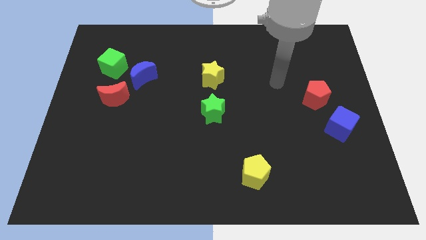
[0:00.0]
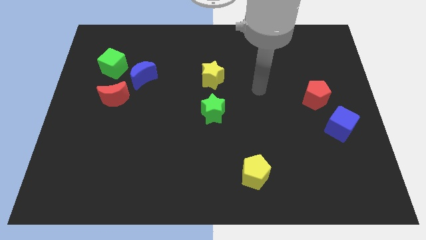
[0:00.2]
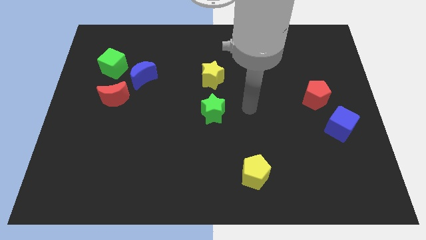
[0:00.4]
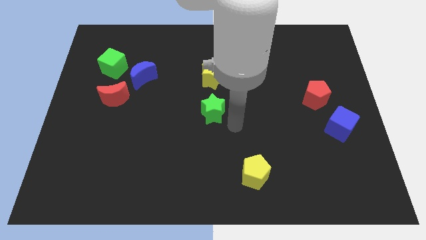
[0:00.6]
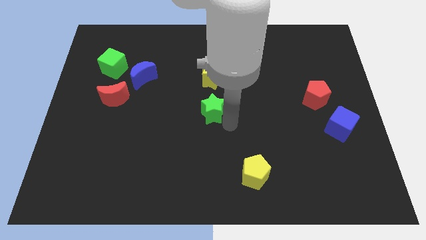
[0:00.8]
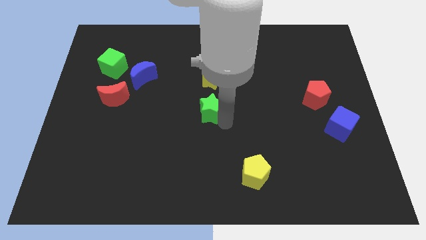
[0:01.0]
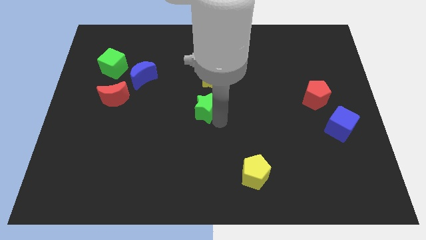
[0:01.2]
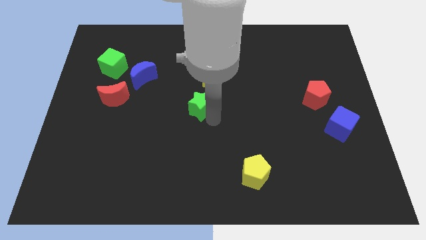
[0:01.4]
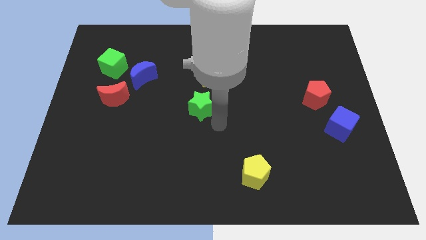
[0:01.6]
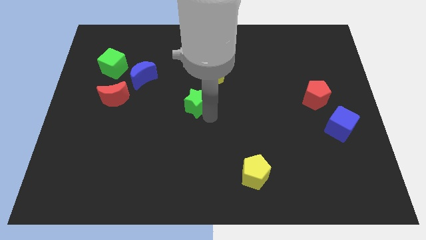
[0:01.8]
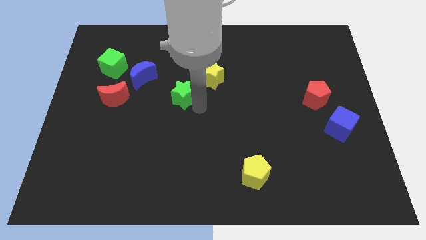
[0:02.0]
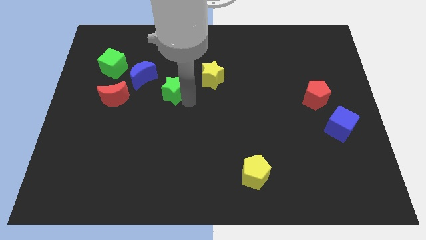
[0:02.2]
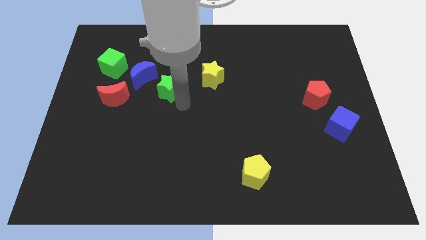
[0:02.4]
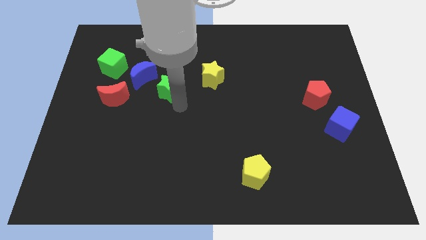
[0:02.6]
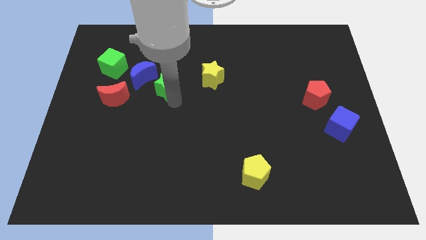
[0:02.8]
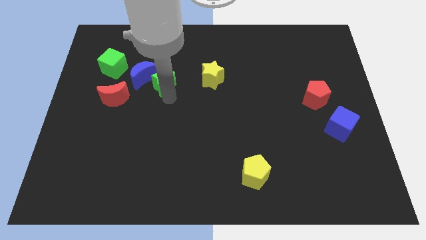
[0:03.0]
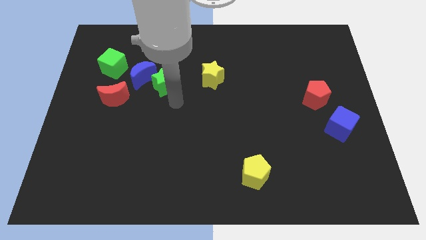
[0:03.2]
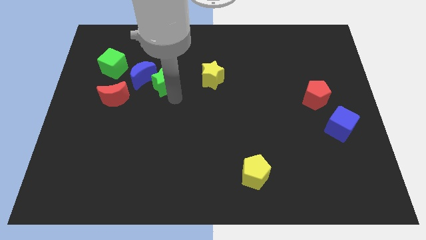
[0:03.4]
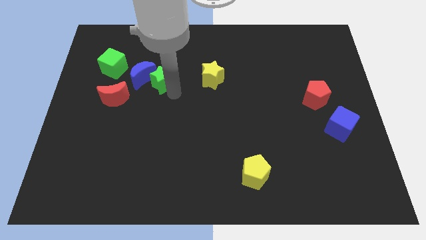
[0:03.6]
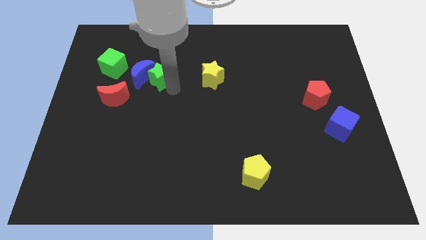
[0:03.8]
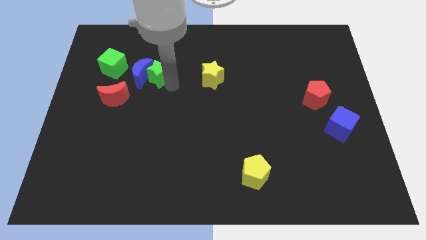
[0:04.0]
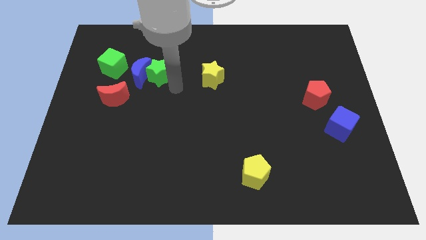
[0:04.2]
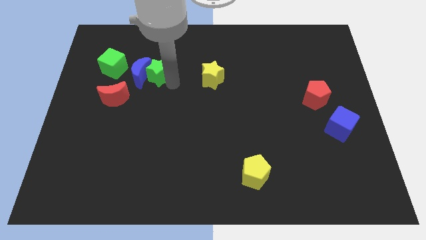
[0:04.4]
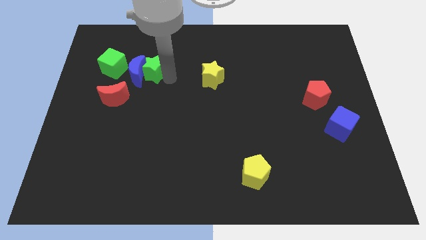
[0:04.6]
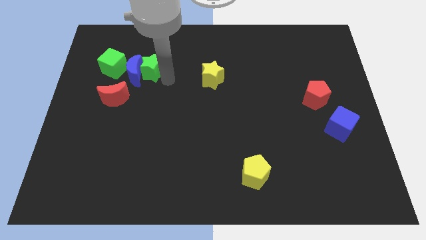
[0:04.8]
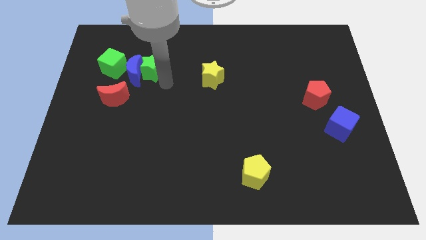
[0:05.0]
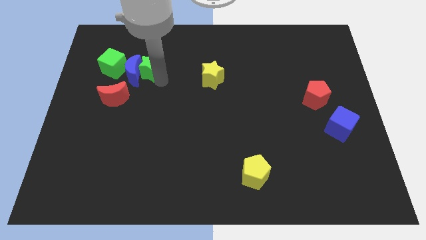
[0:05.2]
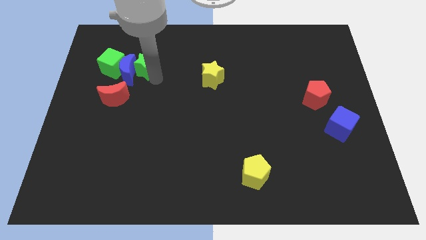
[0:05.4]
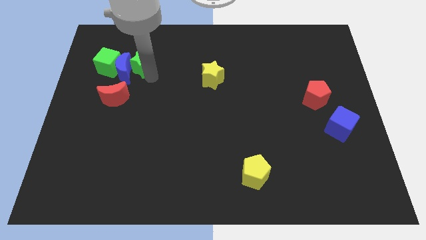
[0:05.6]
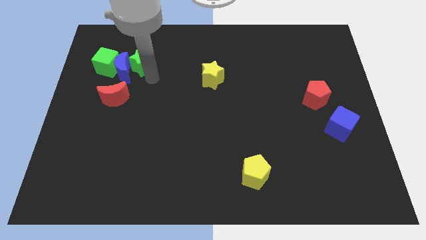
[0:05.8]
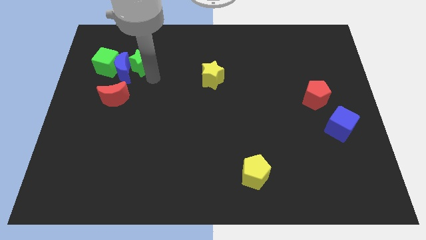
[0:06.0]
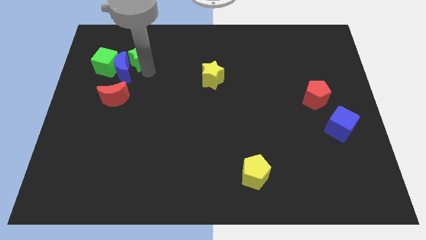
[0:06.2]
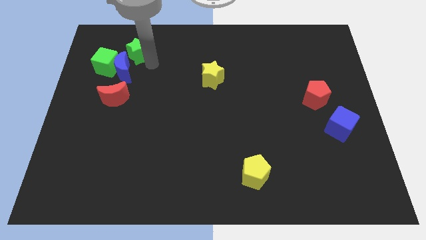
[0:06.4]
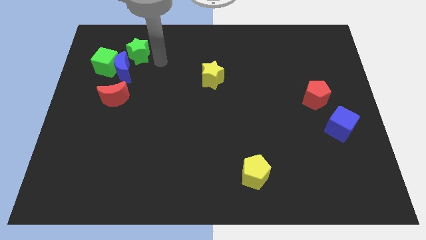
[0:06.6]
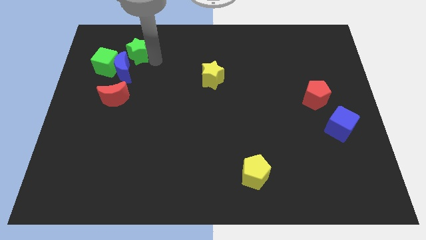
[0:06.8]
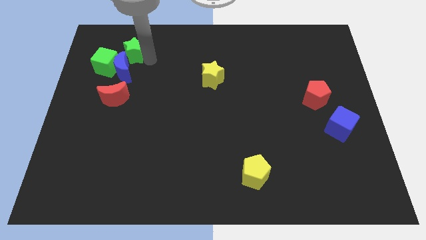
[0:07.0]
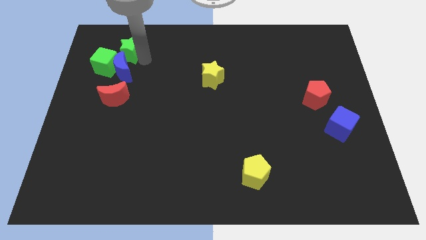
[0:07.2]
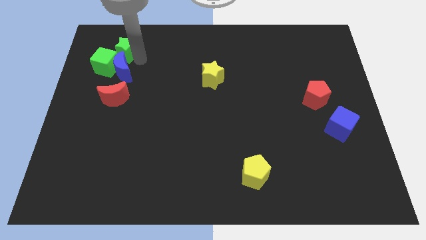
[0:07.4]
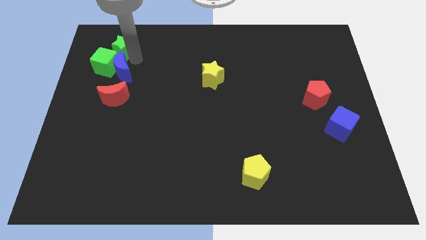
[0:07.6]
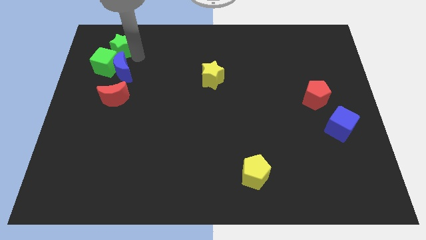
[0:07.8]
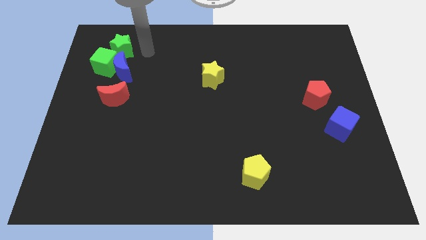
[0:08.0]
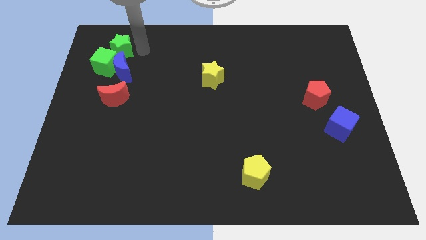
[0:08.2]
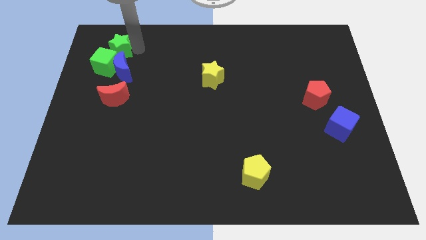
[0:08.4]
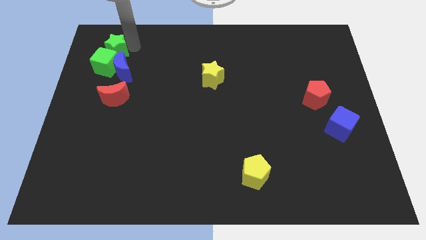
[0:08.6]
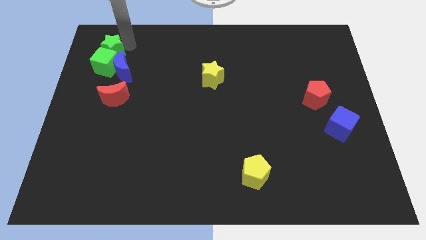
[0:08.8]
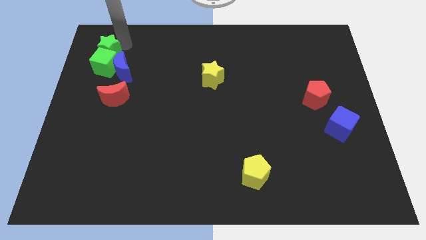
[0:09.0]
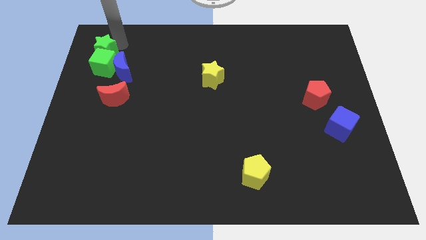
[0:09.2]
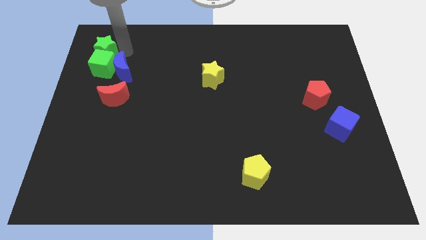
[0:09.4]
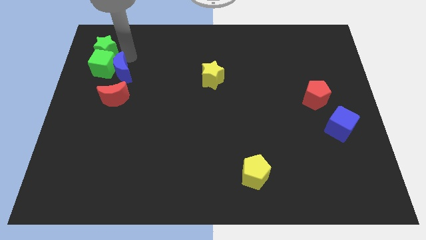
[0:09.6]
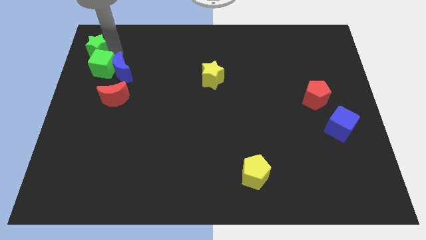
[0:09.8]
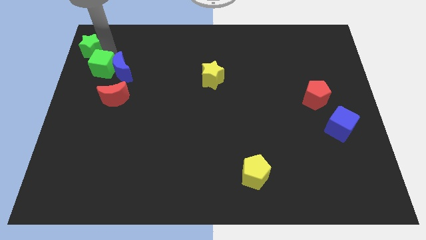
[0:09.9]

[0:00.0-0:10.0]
move the green star to the upper left corner

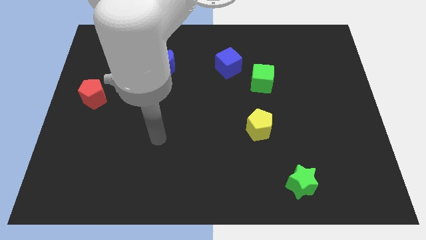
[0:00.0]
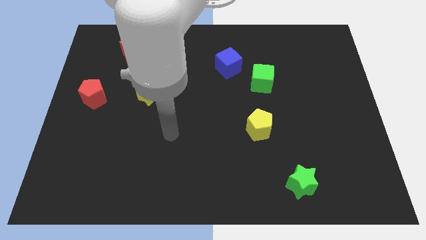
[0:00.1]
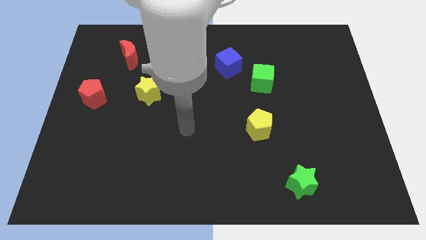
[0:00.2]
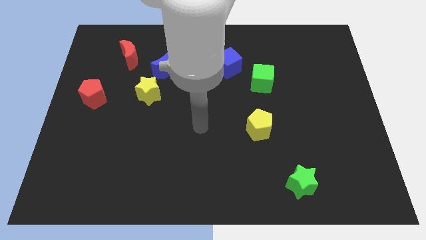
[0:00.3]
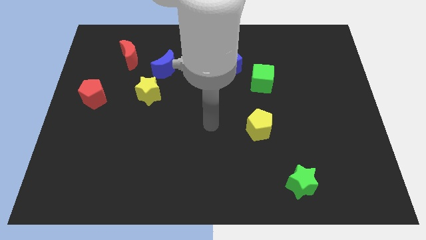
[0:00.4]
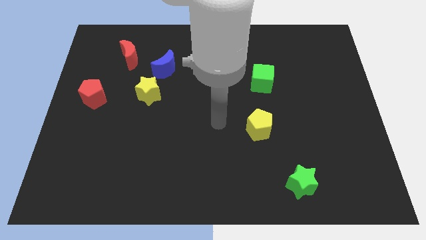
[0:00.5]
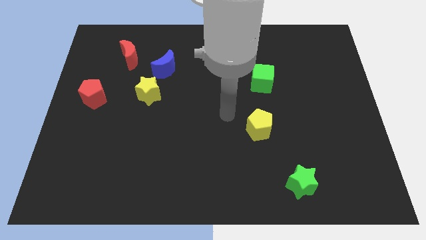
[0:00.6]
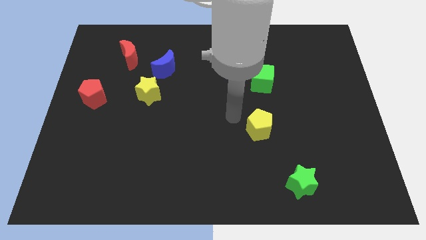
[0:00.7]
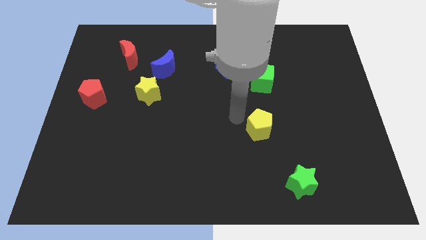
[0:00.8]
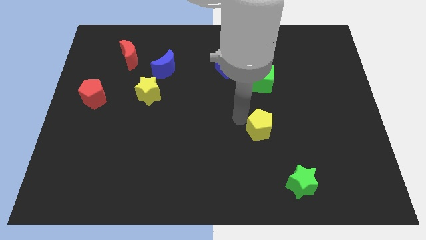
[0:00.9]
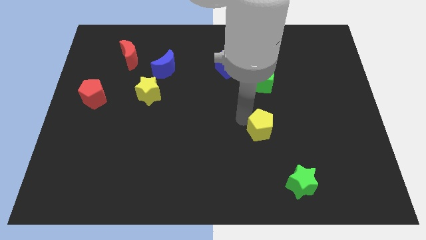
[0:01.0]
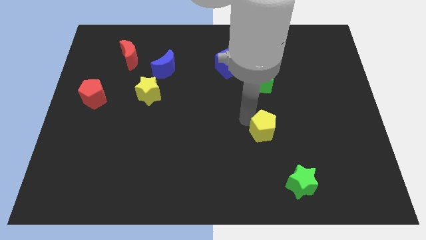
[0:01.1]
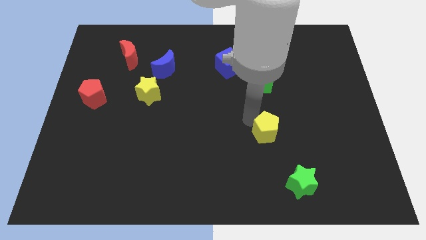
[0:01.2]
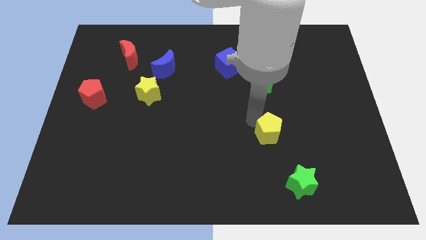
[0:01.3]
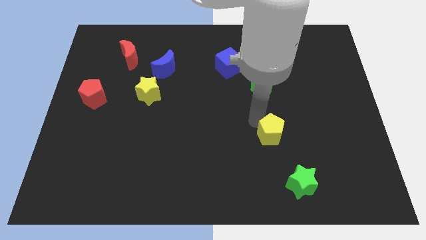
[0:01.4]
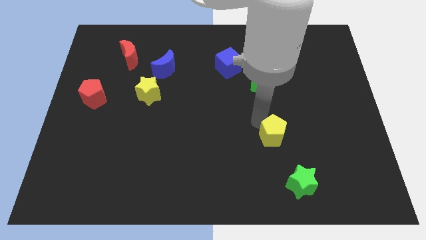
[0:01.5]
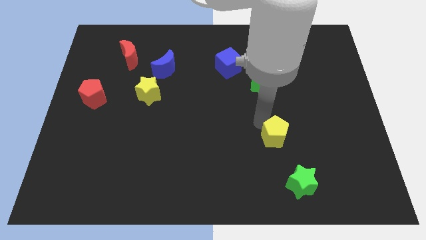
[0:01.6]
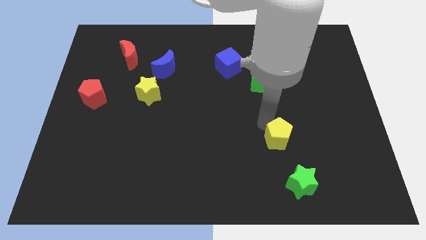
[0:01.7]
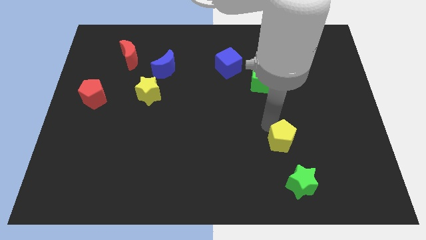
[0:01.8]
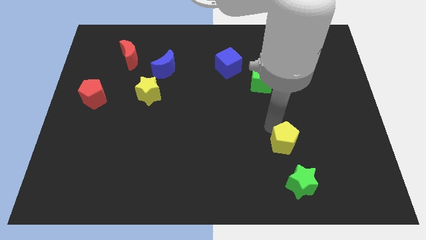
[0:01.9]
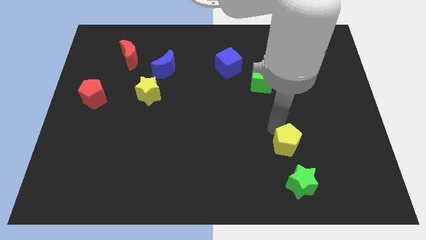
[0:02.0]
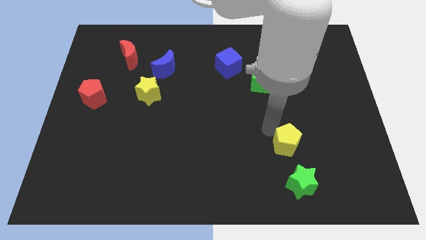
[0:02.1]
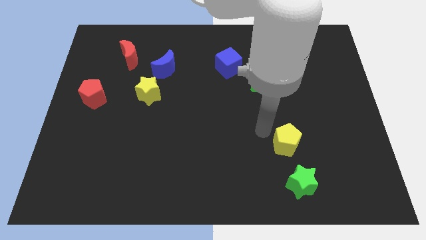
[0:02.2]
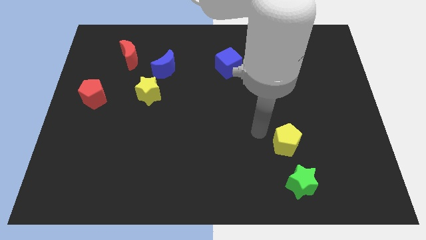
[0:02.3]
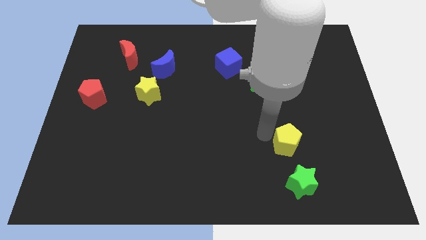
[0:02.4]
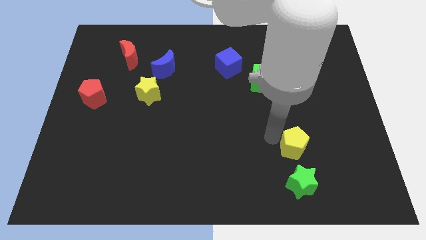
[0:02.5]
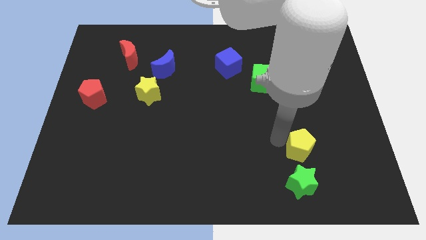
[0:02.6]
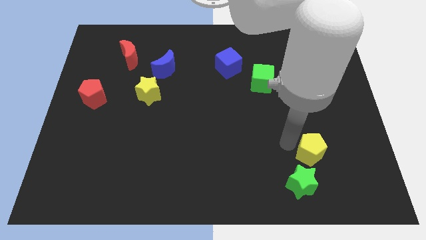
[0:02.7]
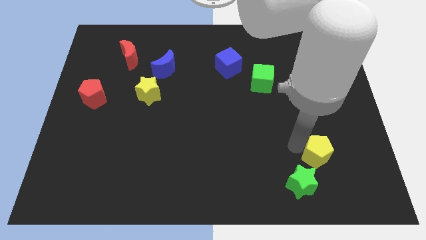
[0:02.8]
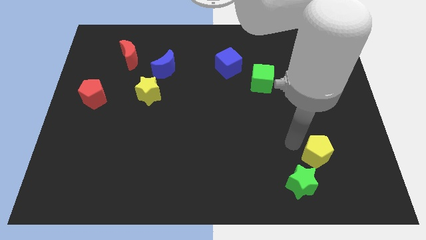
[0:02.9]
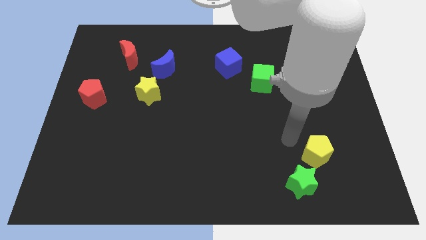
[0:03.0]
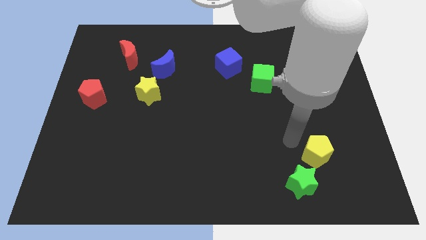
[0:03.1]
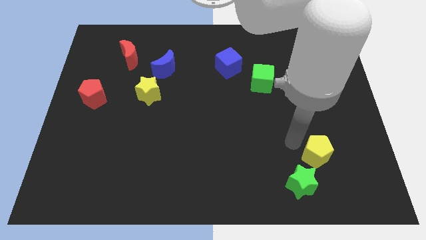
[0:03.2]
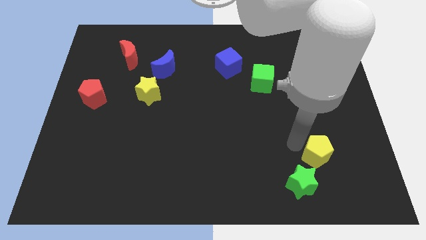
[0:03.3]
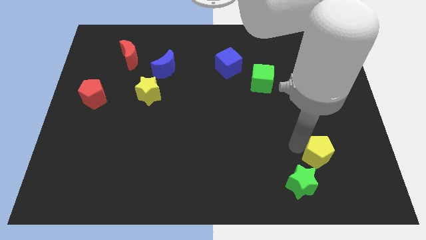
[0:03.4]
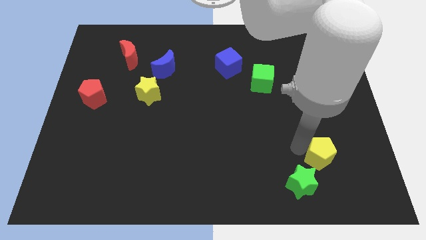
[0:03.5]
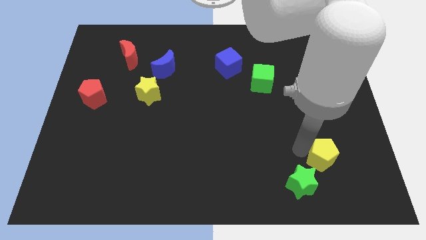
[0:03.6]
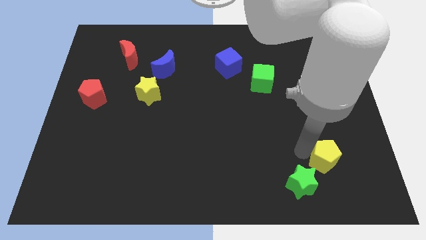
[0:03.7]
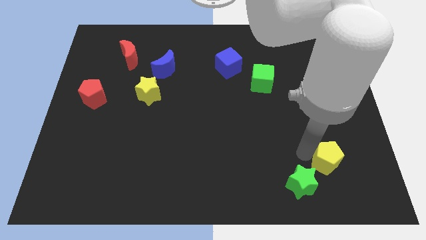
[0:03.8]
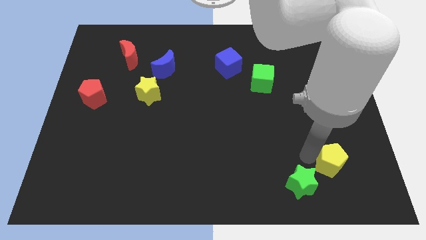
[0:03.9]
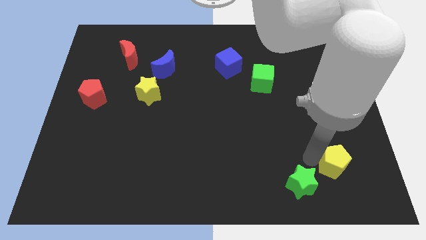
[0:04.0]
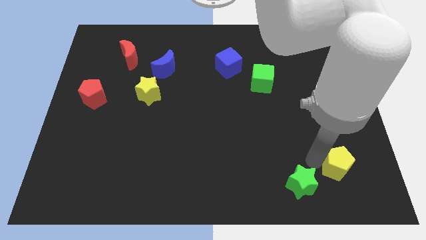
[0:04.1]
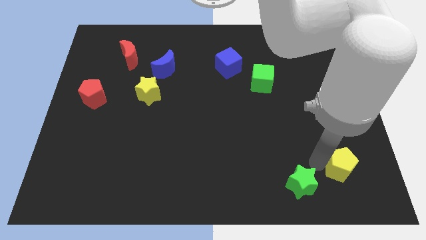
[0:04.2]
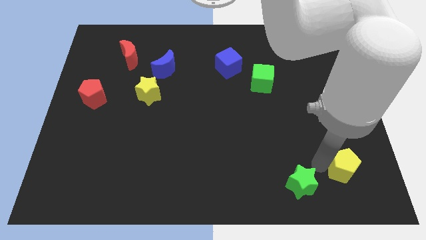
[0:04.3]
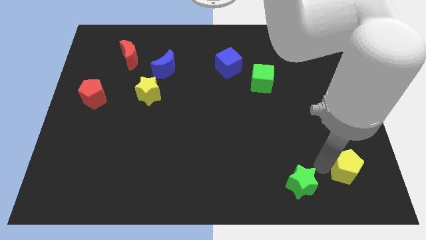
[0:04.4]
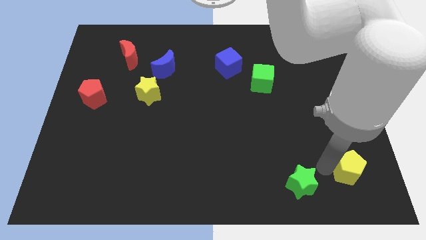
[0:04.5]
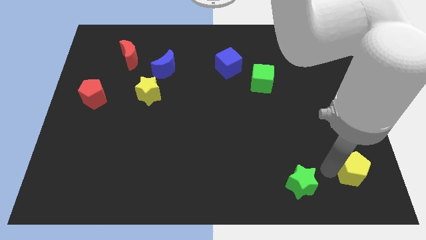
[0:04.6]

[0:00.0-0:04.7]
move the yellow pentagon to the bottom right corner
